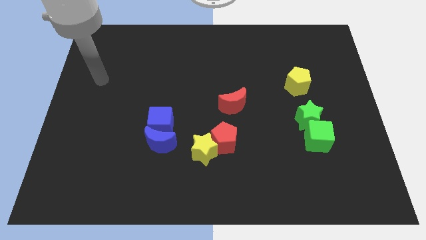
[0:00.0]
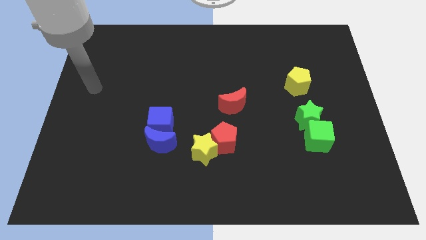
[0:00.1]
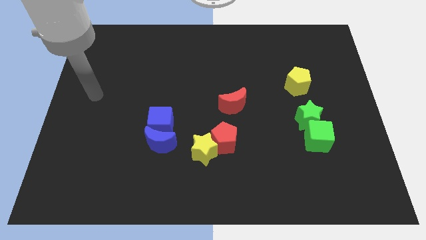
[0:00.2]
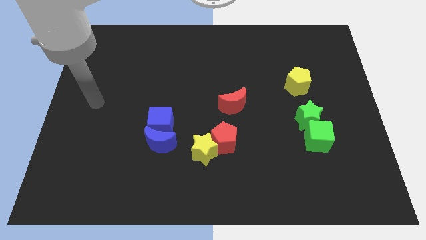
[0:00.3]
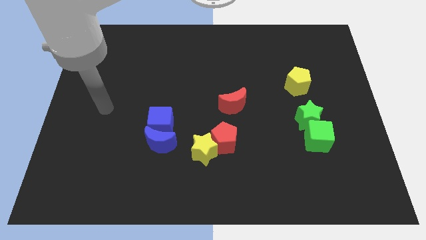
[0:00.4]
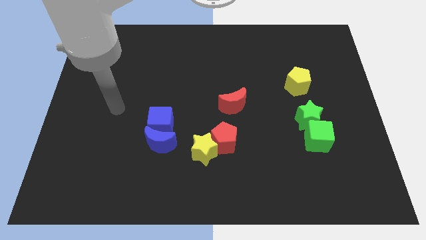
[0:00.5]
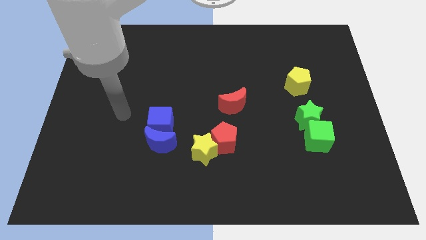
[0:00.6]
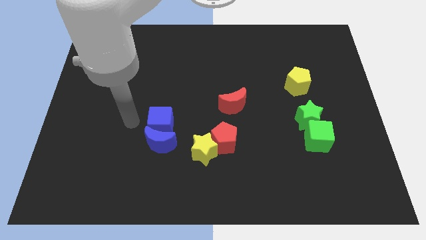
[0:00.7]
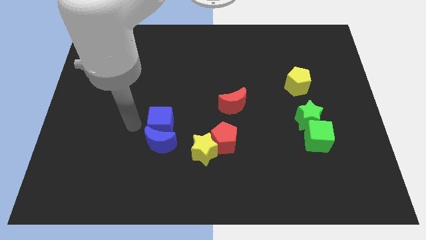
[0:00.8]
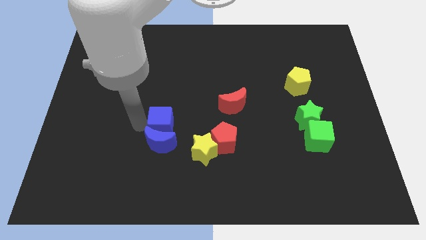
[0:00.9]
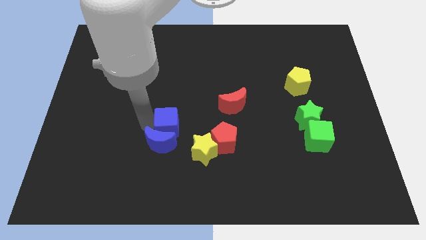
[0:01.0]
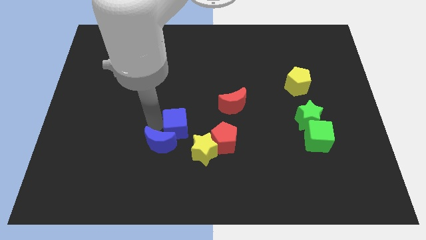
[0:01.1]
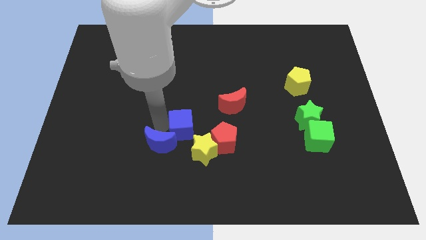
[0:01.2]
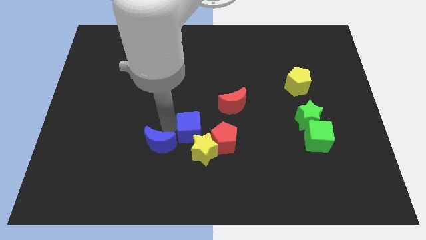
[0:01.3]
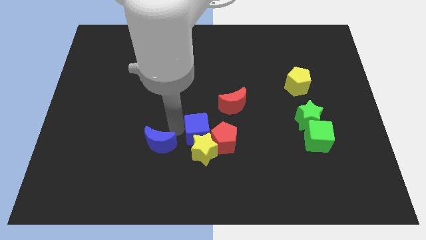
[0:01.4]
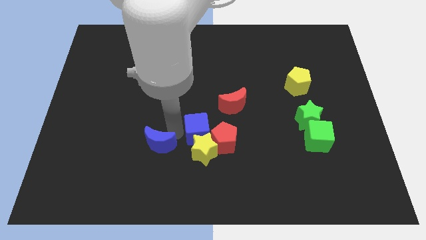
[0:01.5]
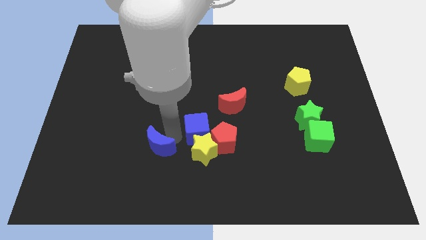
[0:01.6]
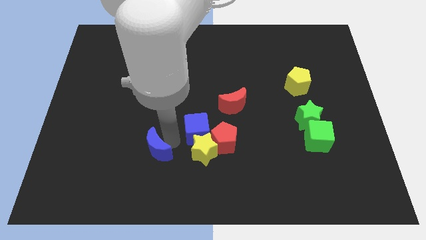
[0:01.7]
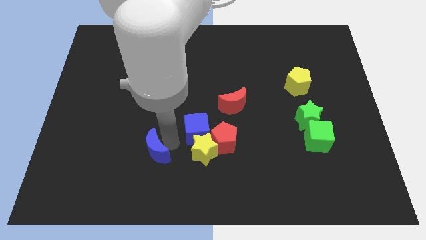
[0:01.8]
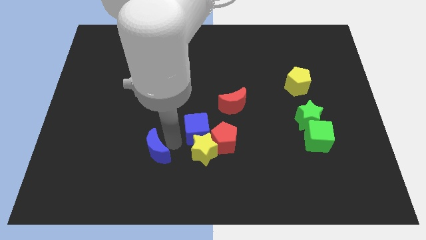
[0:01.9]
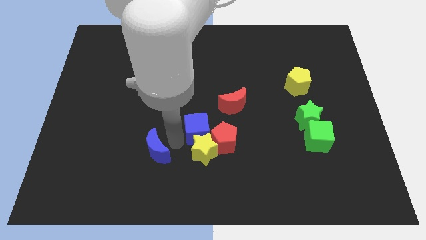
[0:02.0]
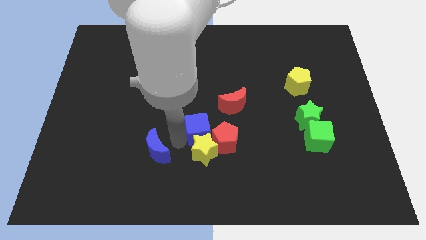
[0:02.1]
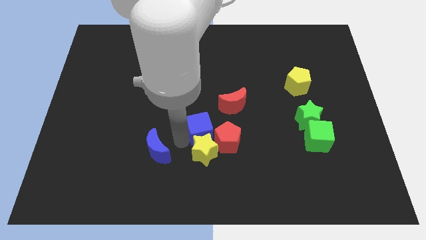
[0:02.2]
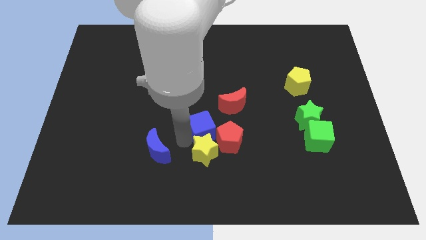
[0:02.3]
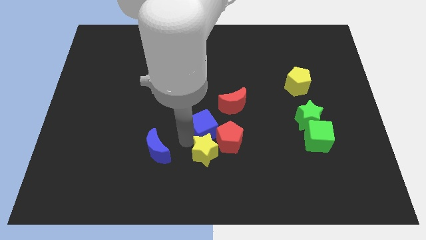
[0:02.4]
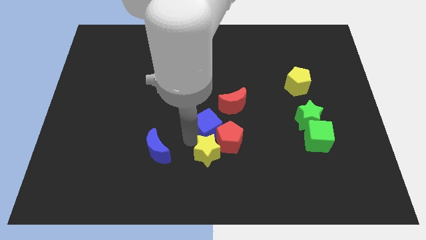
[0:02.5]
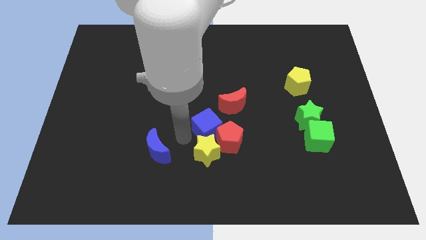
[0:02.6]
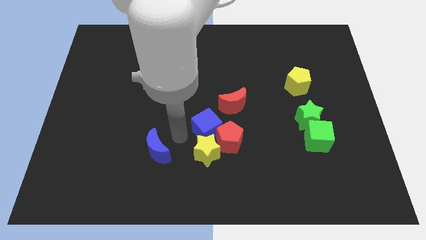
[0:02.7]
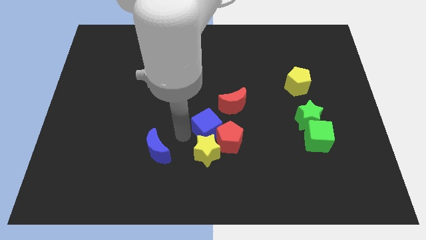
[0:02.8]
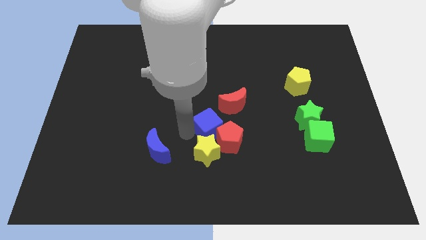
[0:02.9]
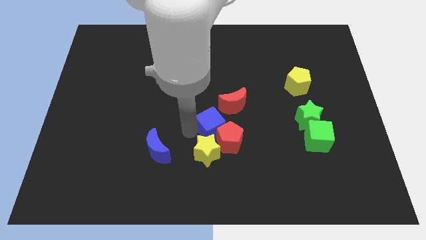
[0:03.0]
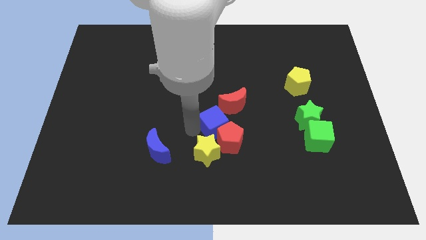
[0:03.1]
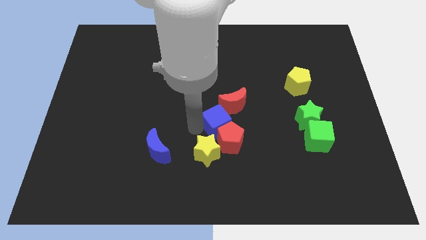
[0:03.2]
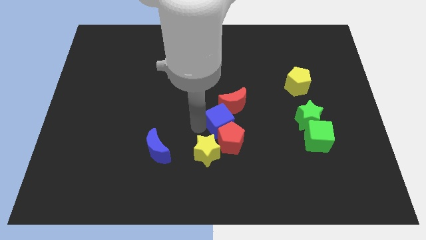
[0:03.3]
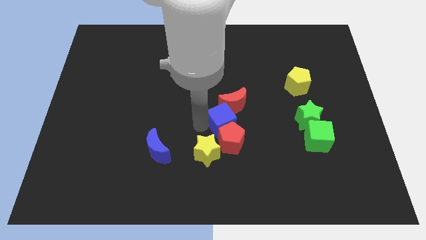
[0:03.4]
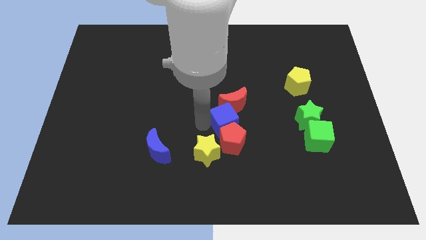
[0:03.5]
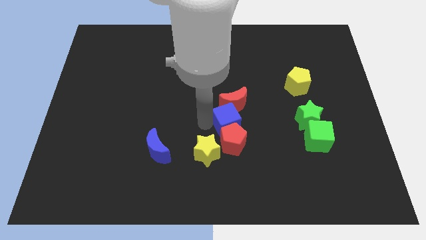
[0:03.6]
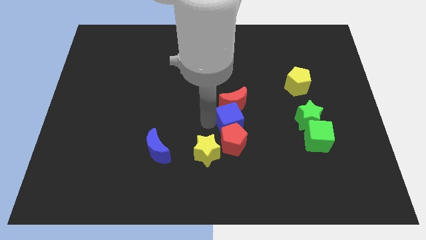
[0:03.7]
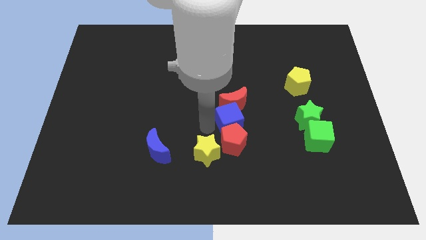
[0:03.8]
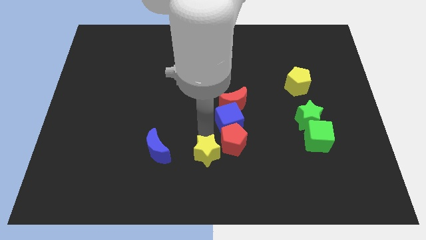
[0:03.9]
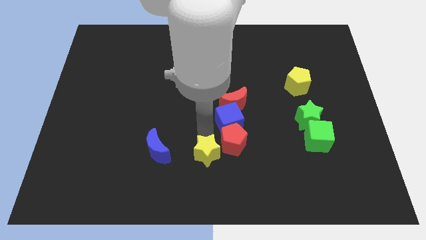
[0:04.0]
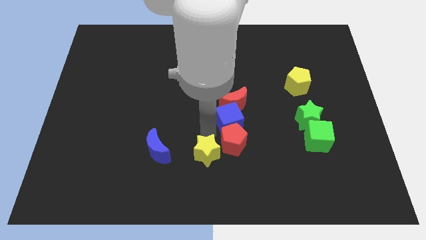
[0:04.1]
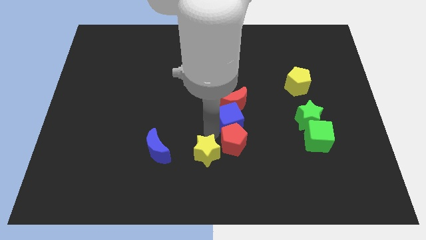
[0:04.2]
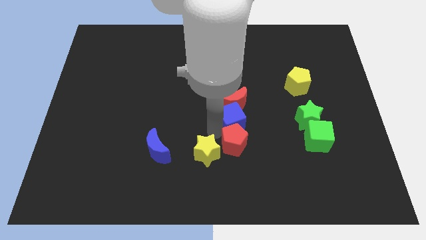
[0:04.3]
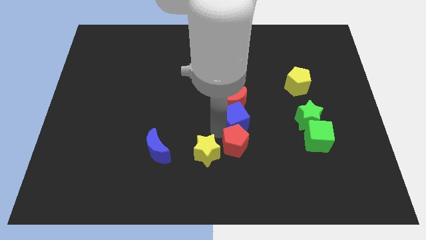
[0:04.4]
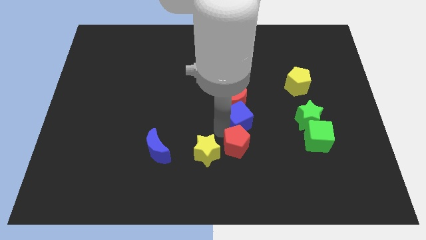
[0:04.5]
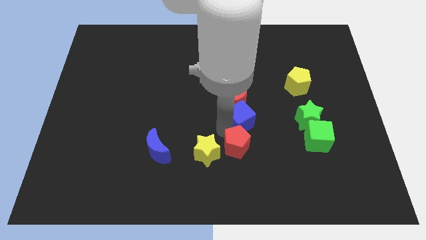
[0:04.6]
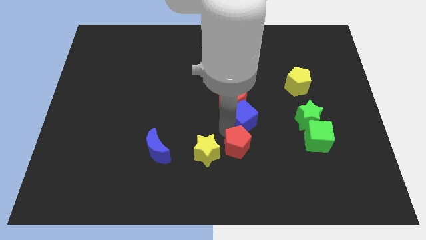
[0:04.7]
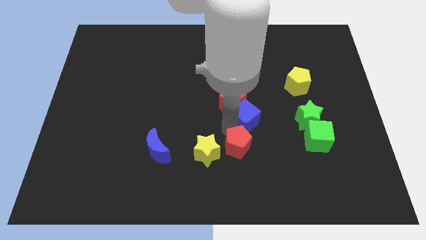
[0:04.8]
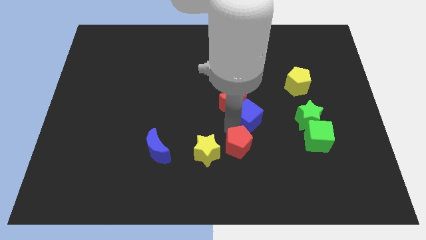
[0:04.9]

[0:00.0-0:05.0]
slide the blue cube right of the red moon

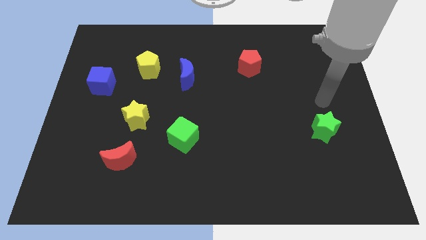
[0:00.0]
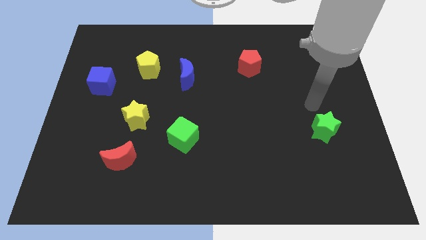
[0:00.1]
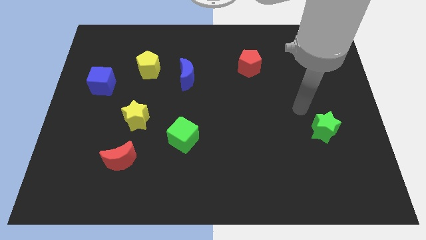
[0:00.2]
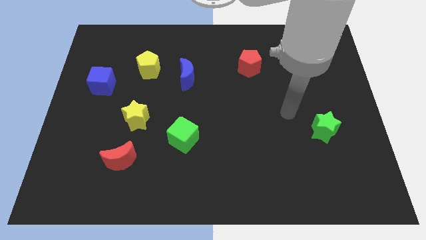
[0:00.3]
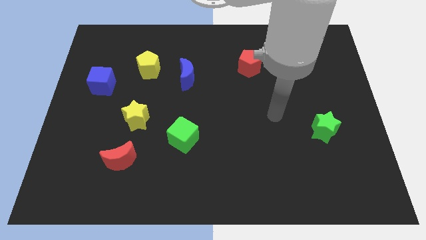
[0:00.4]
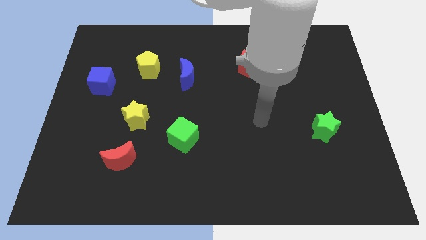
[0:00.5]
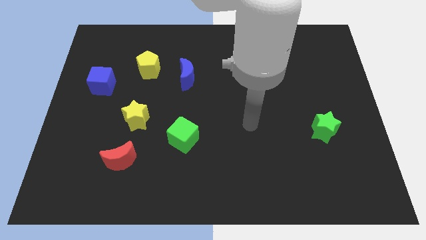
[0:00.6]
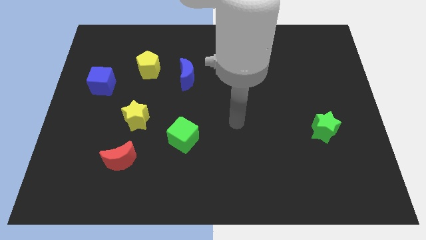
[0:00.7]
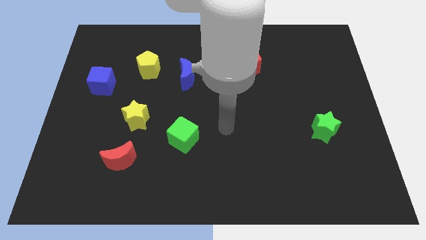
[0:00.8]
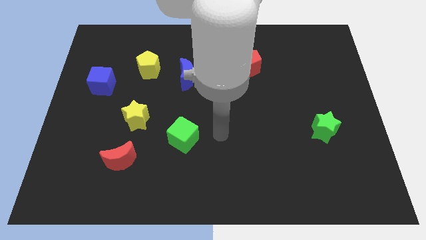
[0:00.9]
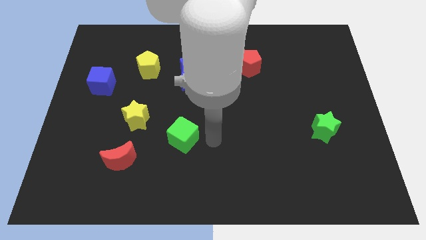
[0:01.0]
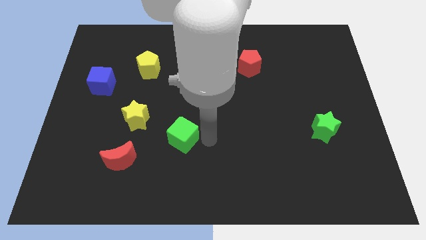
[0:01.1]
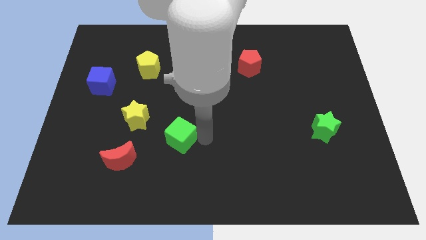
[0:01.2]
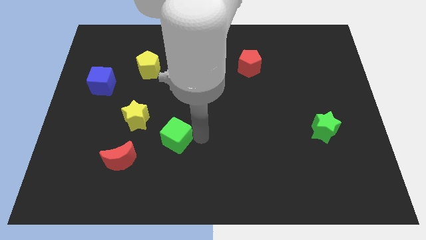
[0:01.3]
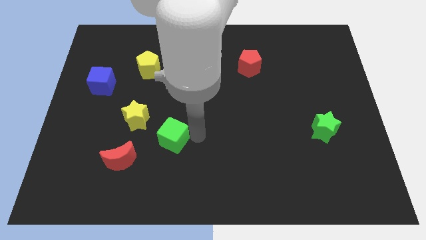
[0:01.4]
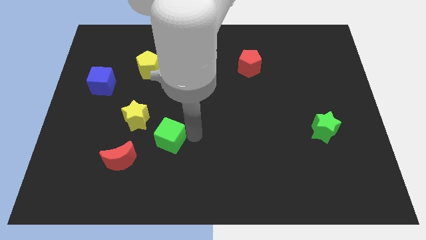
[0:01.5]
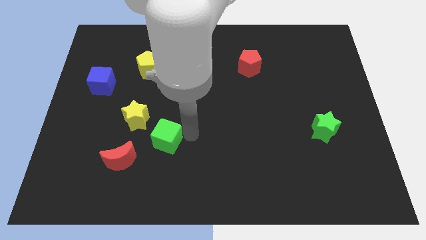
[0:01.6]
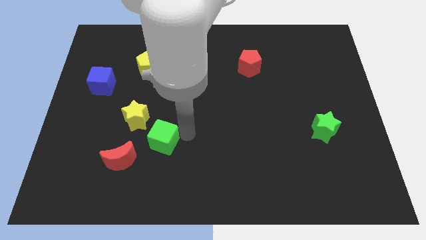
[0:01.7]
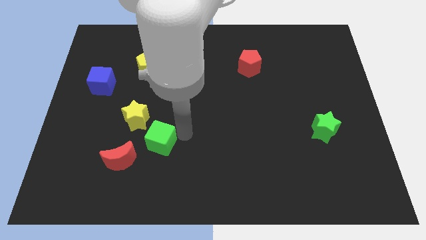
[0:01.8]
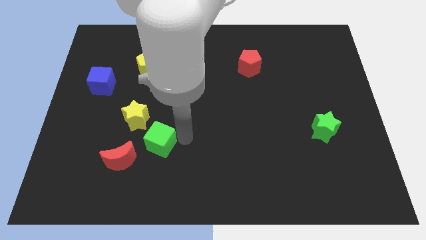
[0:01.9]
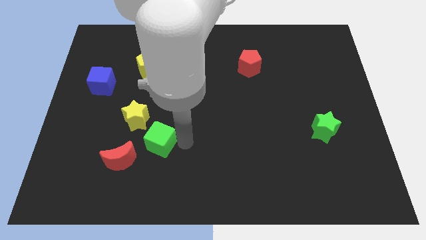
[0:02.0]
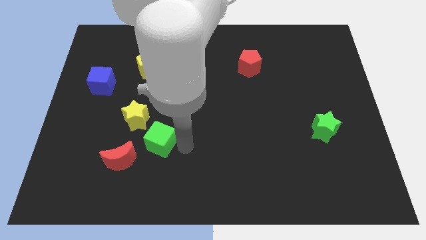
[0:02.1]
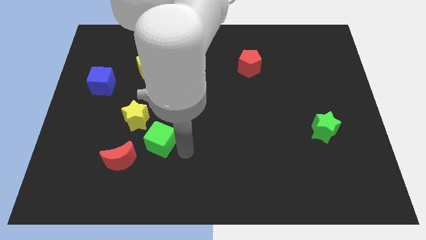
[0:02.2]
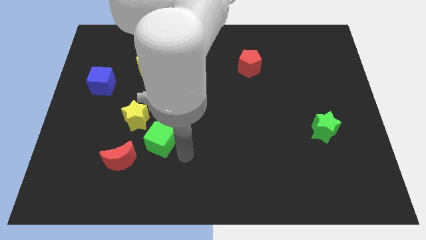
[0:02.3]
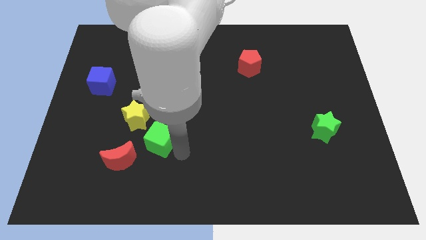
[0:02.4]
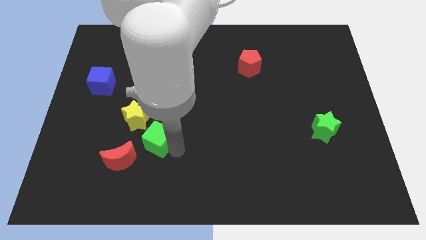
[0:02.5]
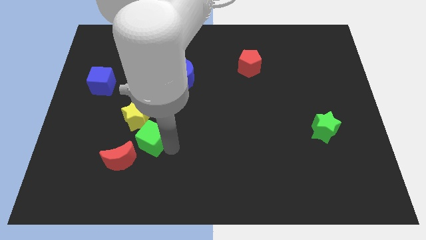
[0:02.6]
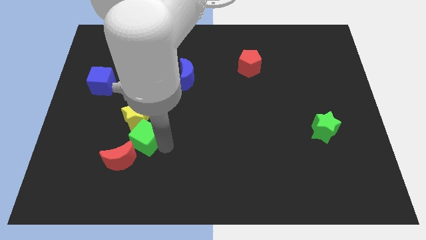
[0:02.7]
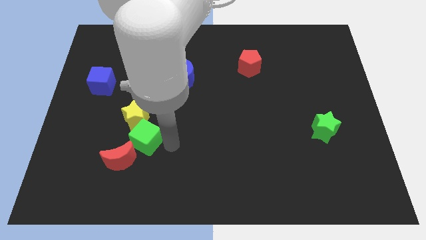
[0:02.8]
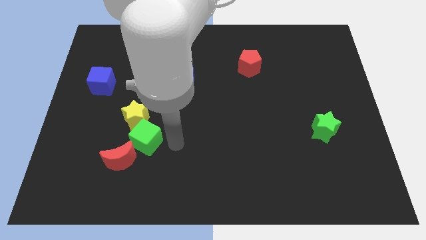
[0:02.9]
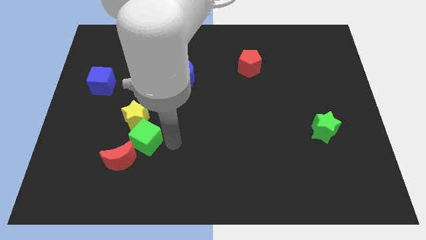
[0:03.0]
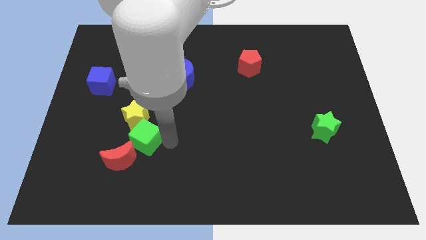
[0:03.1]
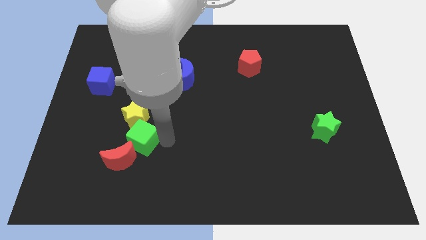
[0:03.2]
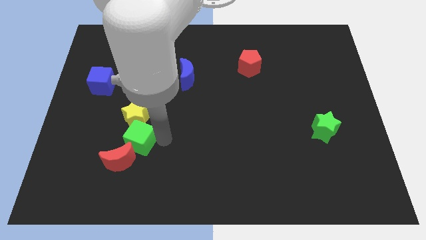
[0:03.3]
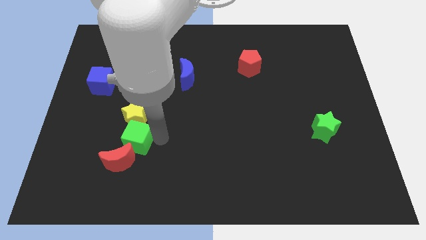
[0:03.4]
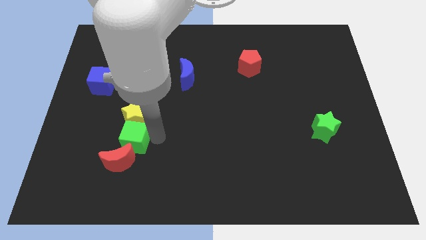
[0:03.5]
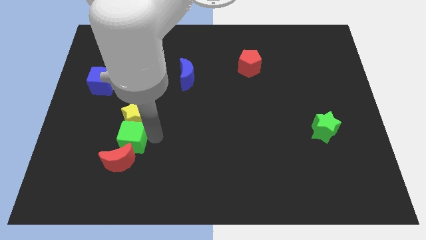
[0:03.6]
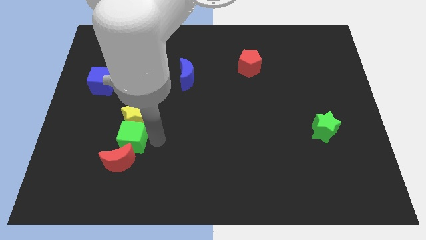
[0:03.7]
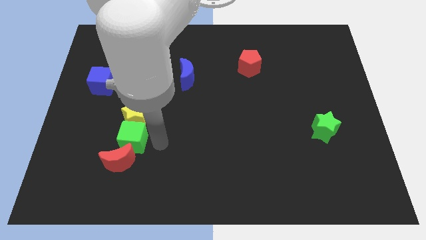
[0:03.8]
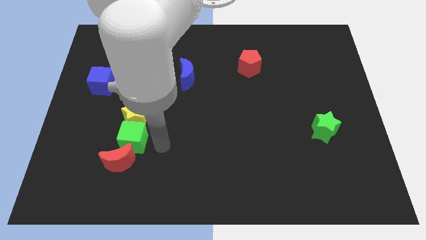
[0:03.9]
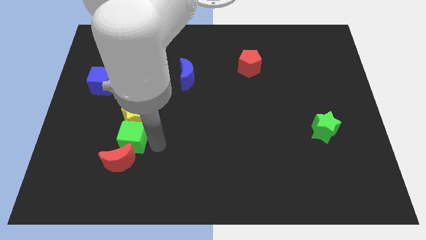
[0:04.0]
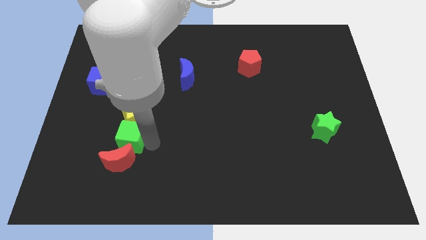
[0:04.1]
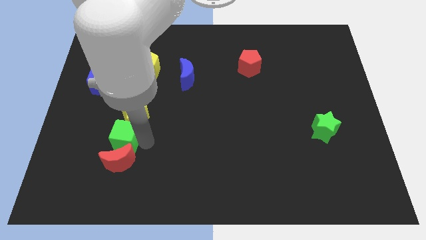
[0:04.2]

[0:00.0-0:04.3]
move the green cube diagonally up and to the left of the red moon
